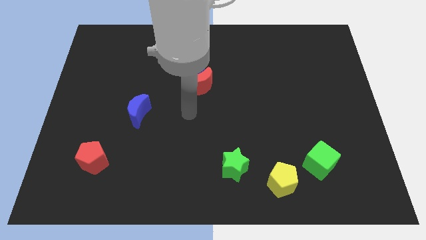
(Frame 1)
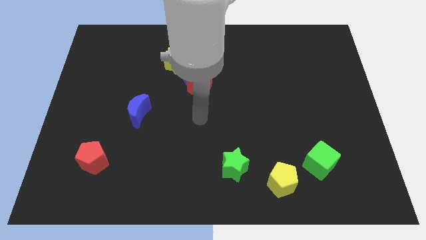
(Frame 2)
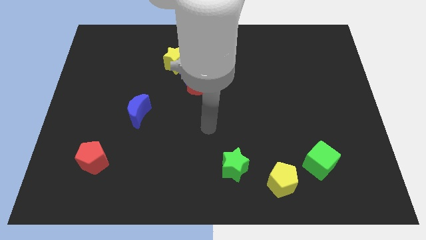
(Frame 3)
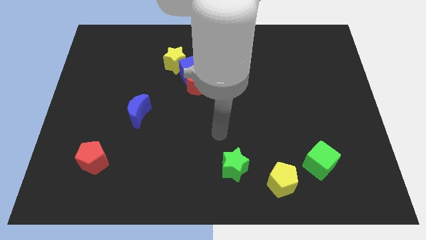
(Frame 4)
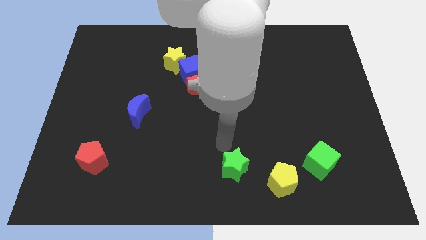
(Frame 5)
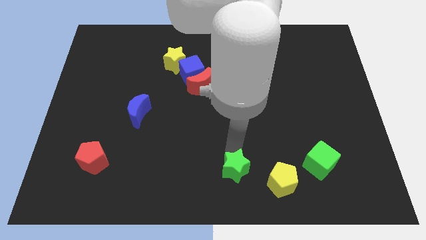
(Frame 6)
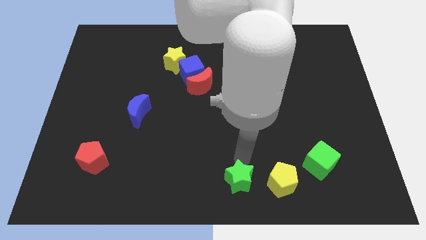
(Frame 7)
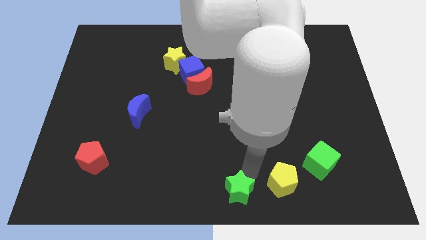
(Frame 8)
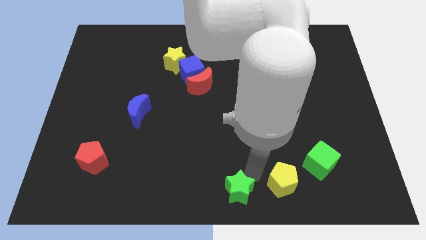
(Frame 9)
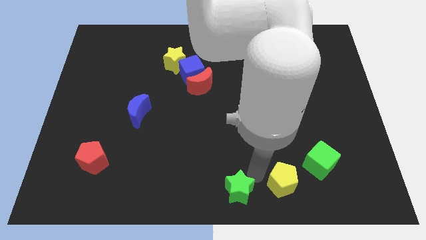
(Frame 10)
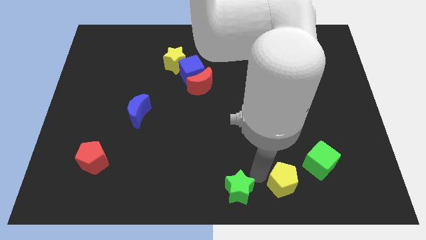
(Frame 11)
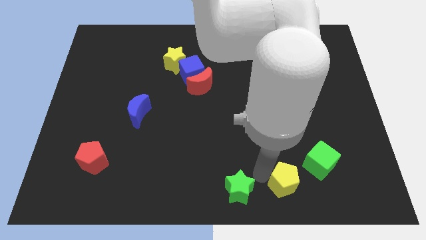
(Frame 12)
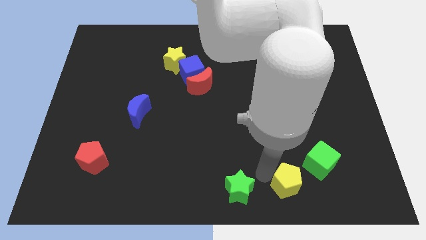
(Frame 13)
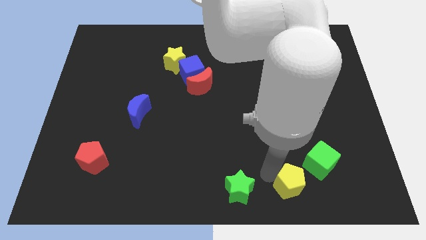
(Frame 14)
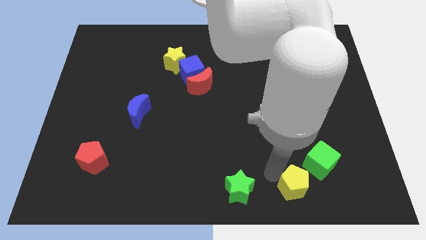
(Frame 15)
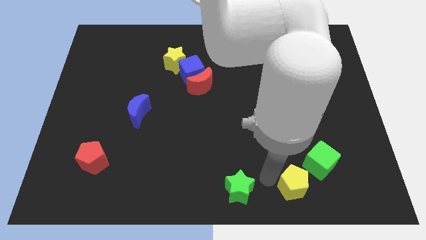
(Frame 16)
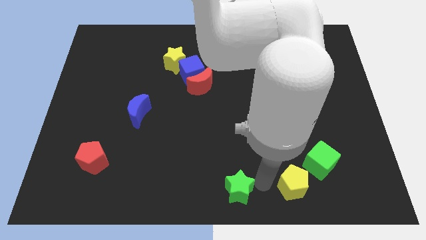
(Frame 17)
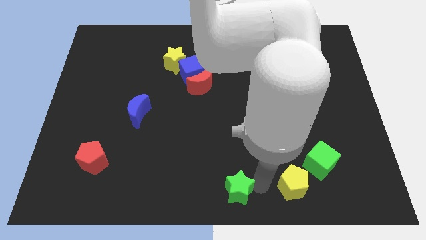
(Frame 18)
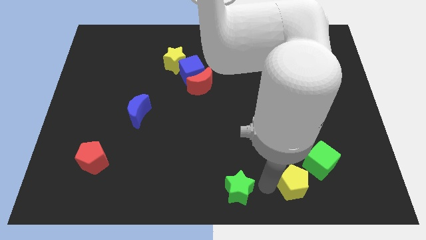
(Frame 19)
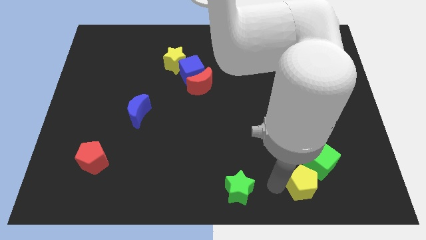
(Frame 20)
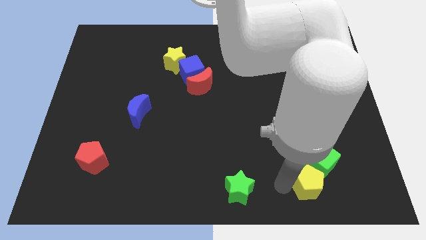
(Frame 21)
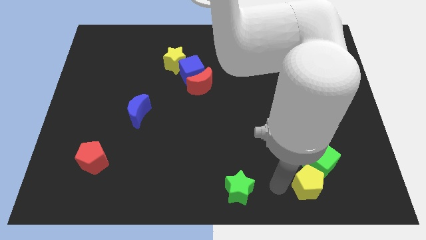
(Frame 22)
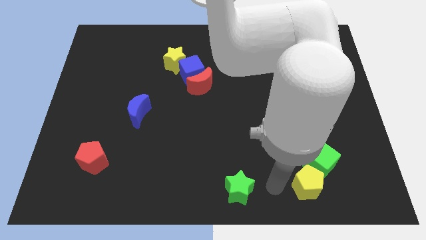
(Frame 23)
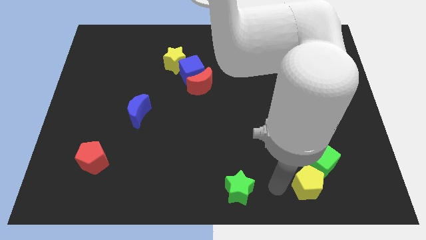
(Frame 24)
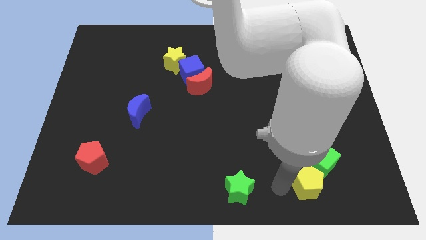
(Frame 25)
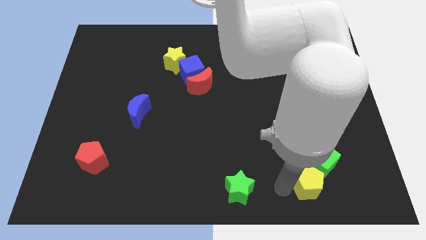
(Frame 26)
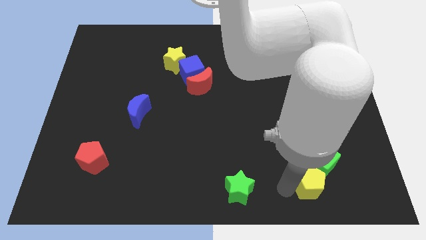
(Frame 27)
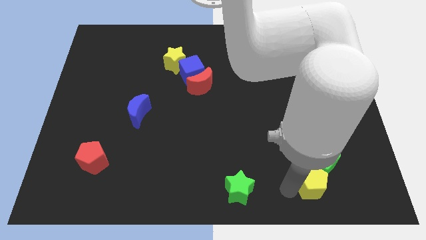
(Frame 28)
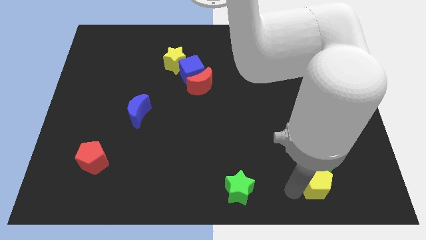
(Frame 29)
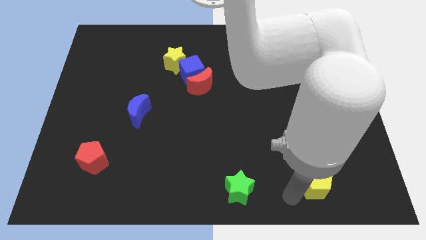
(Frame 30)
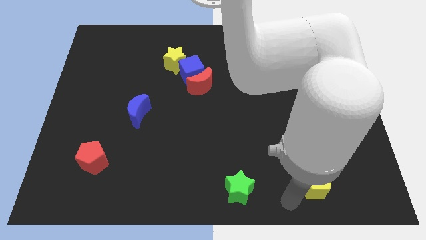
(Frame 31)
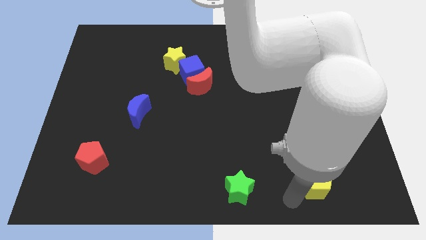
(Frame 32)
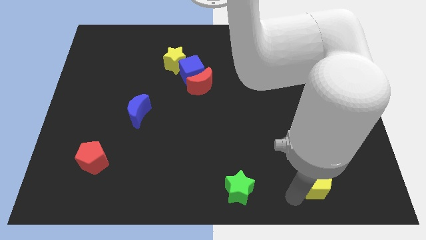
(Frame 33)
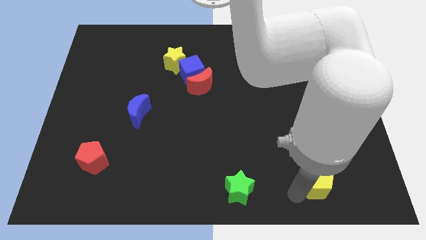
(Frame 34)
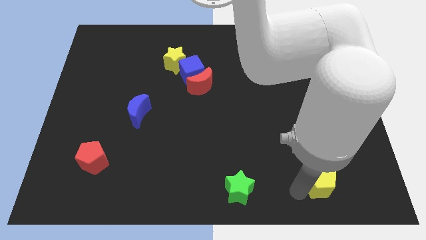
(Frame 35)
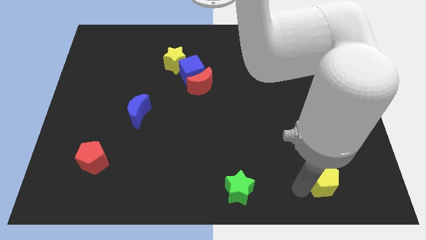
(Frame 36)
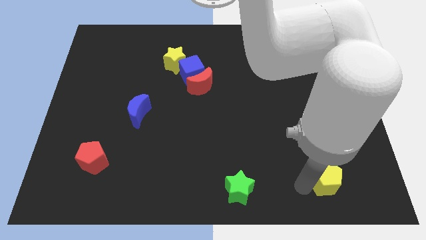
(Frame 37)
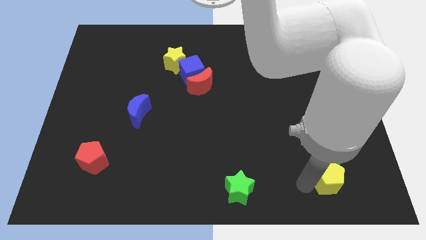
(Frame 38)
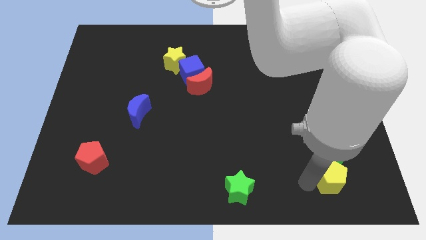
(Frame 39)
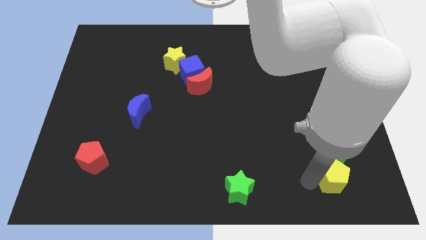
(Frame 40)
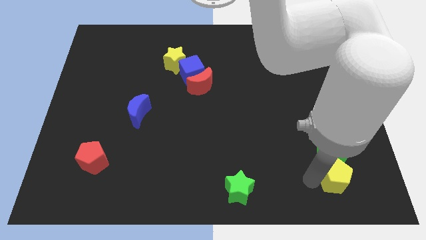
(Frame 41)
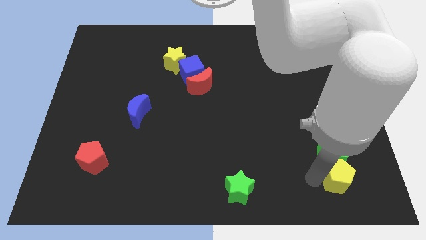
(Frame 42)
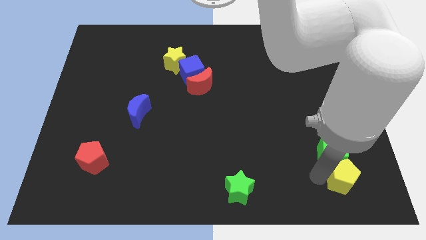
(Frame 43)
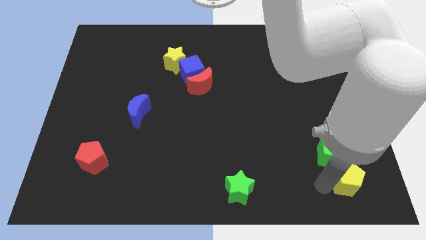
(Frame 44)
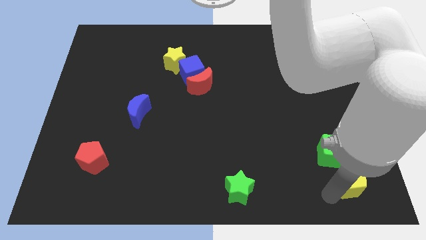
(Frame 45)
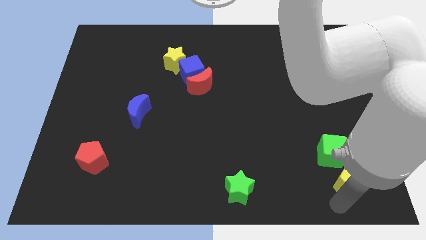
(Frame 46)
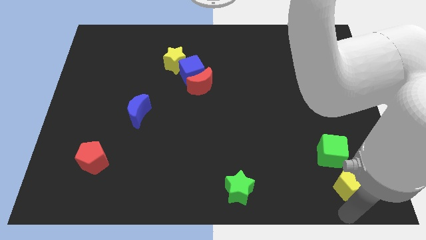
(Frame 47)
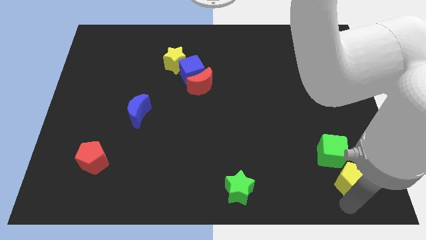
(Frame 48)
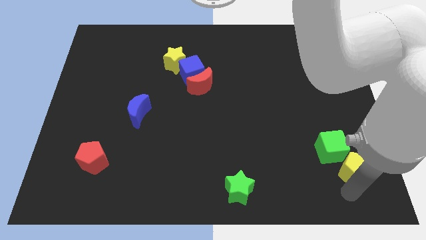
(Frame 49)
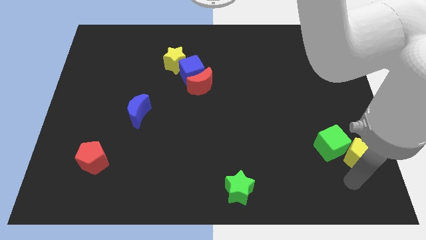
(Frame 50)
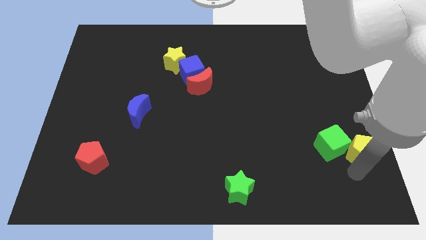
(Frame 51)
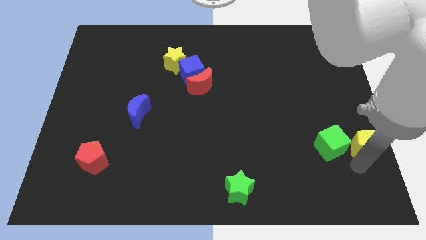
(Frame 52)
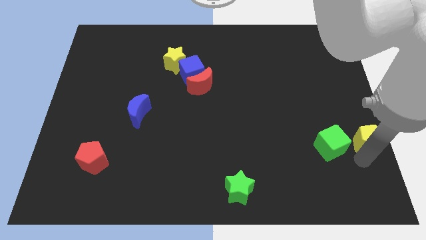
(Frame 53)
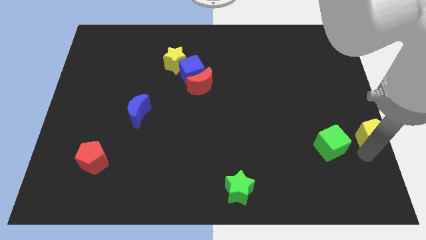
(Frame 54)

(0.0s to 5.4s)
put the yellow pentagon to the top right of the green cube

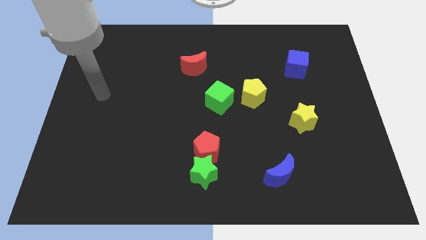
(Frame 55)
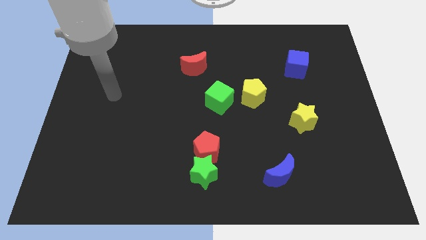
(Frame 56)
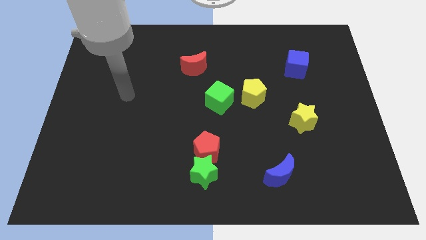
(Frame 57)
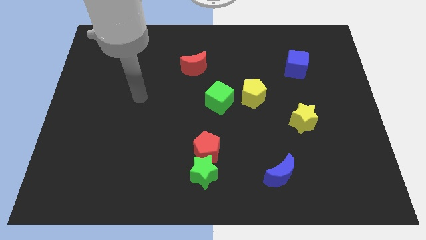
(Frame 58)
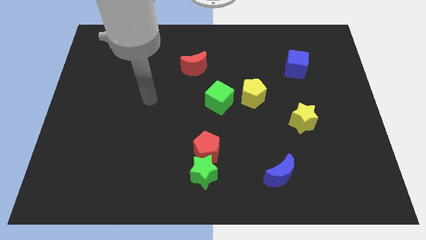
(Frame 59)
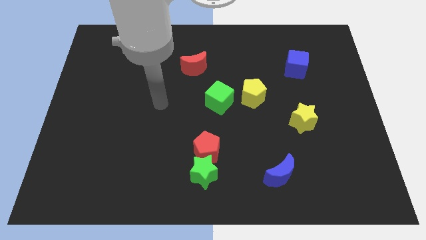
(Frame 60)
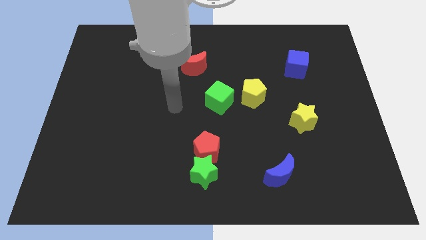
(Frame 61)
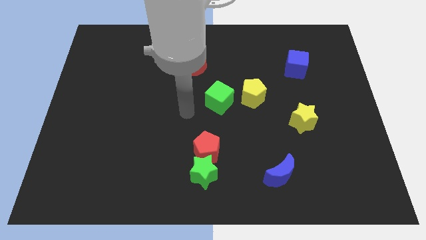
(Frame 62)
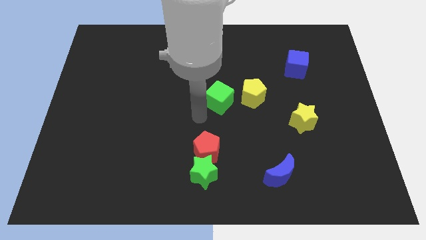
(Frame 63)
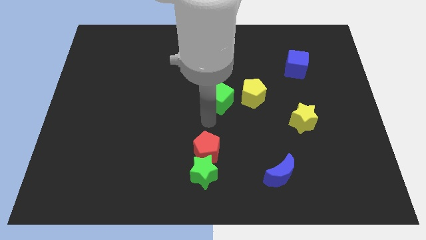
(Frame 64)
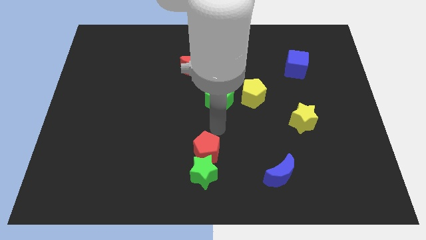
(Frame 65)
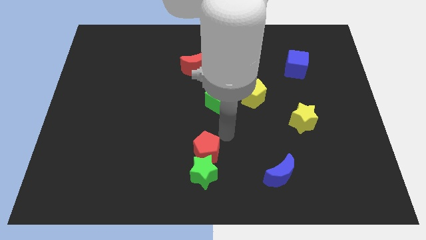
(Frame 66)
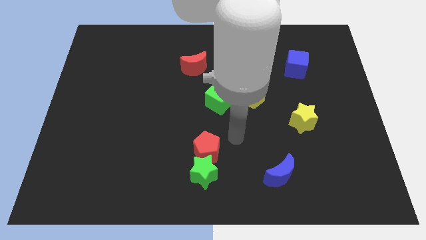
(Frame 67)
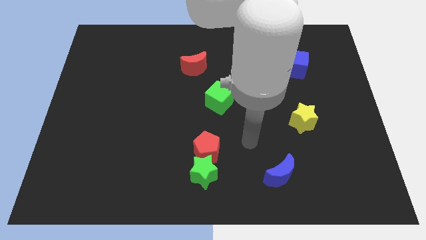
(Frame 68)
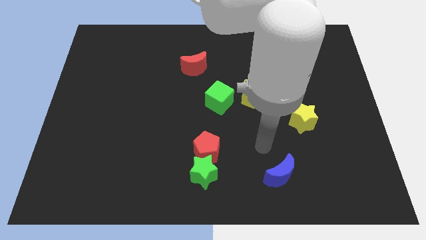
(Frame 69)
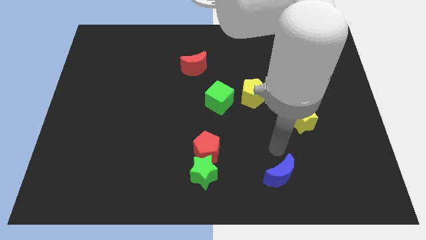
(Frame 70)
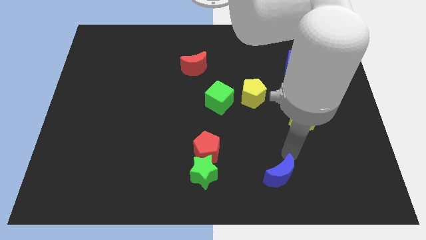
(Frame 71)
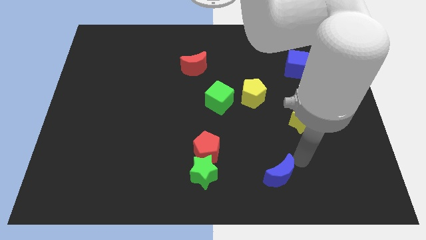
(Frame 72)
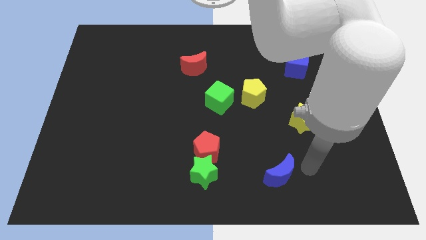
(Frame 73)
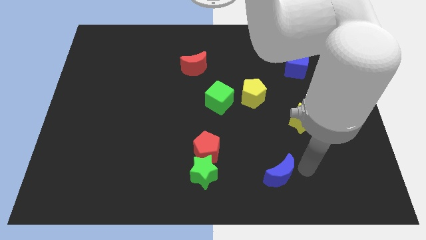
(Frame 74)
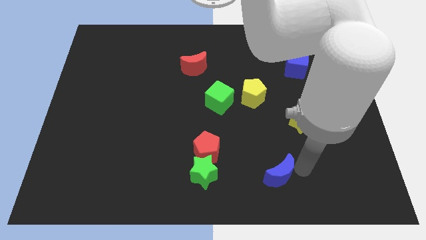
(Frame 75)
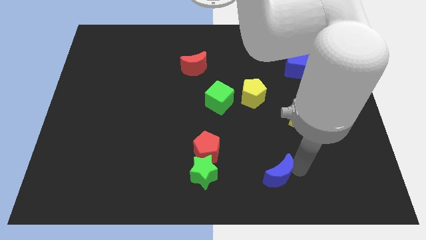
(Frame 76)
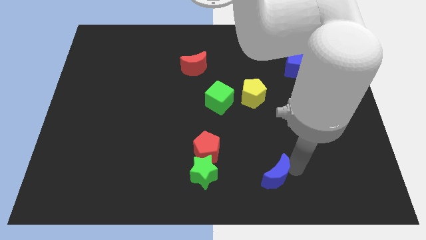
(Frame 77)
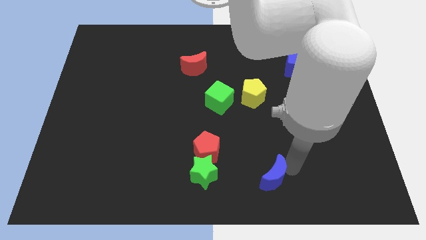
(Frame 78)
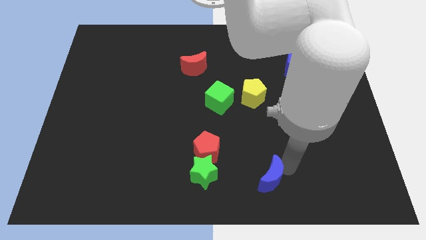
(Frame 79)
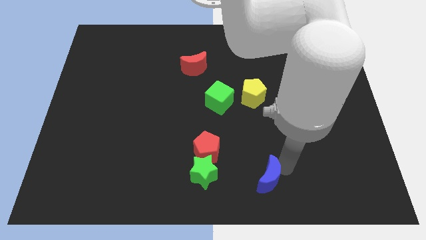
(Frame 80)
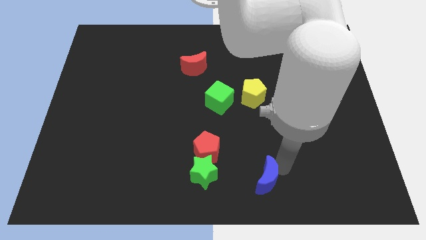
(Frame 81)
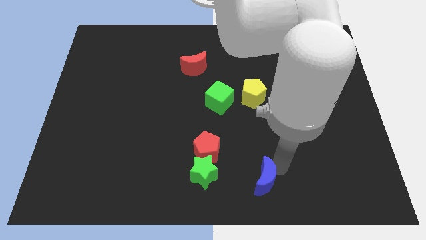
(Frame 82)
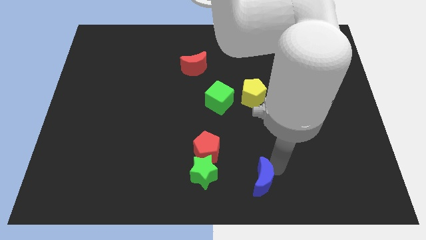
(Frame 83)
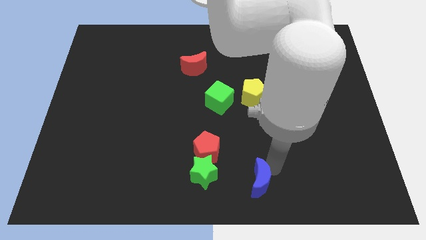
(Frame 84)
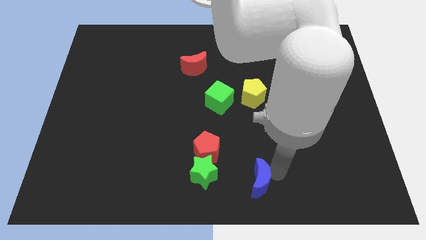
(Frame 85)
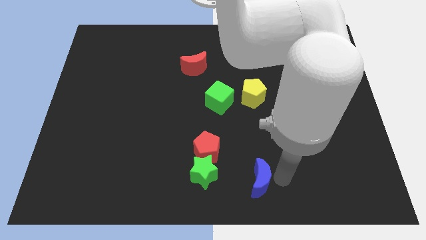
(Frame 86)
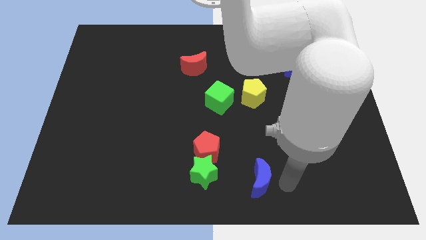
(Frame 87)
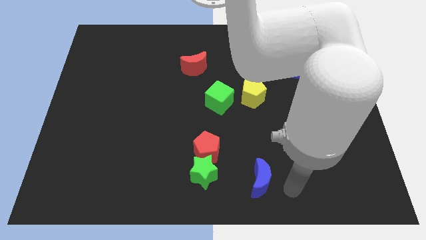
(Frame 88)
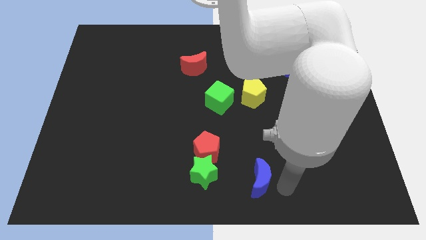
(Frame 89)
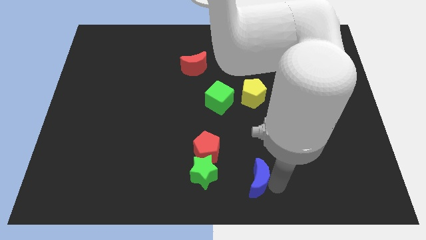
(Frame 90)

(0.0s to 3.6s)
move the blue moon diagonally down and to the right of the red pentagon
